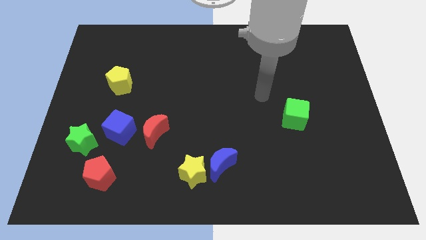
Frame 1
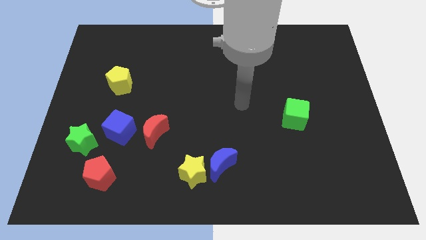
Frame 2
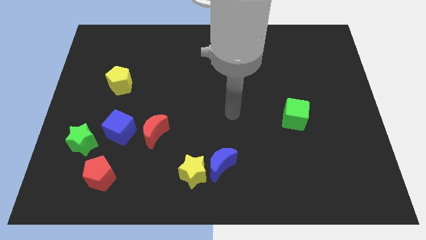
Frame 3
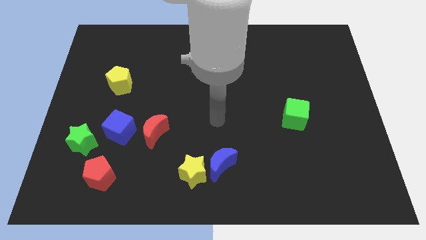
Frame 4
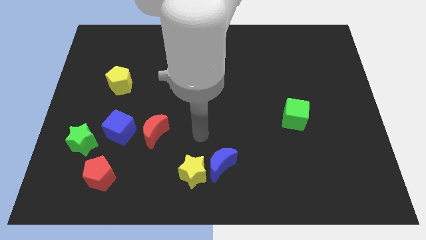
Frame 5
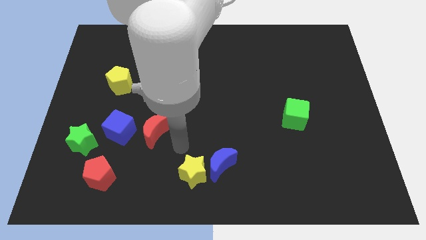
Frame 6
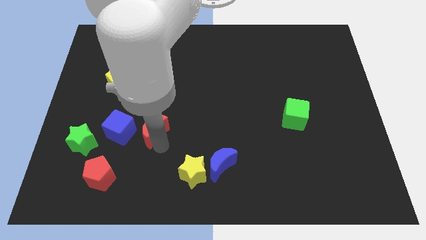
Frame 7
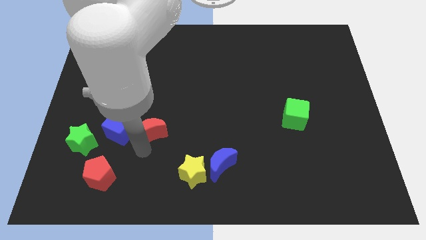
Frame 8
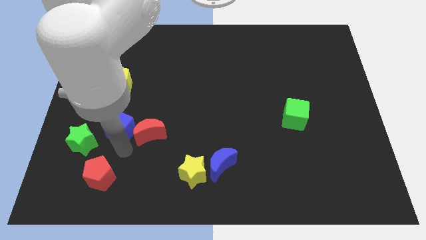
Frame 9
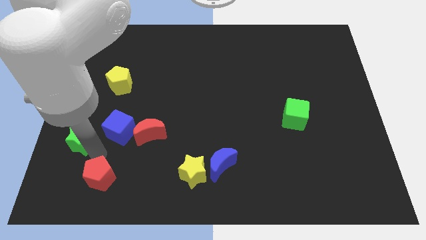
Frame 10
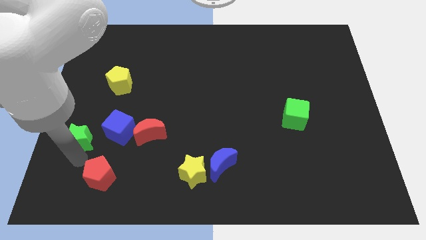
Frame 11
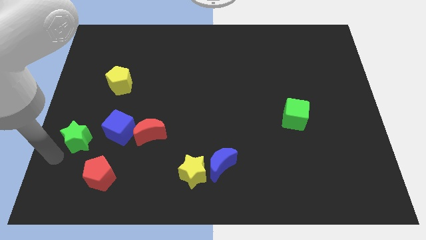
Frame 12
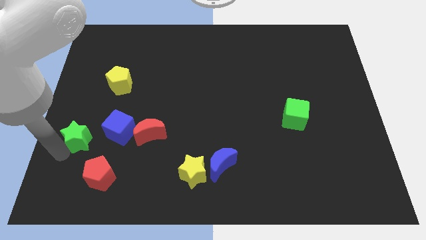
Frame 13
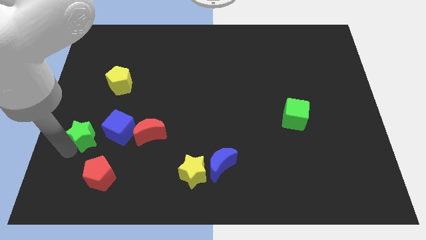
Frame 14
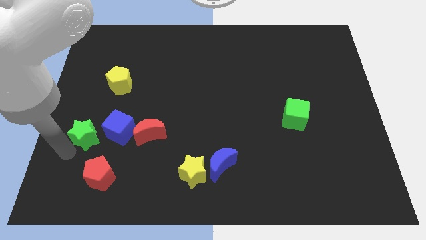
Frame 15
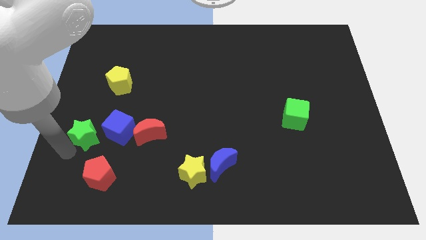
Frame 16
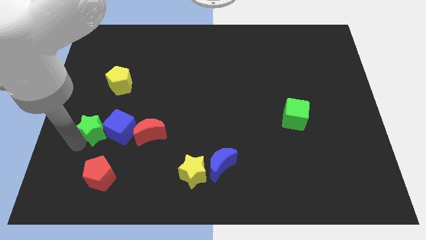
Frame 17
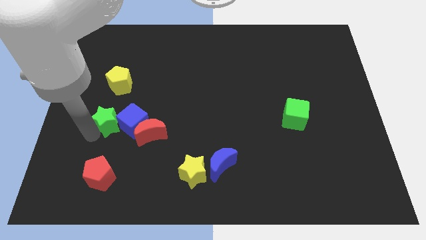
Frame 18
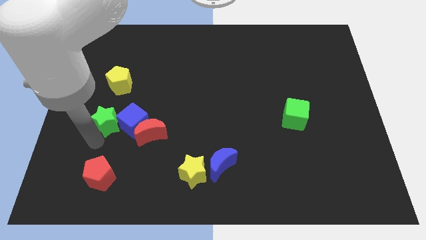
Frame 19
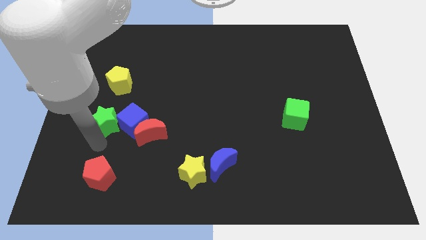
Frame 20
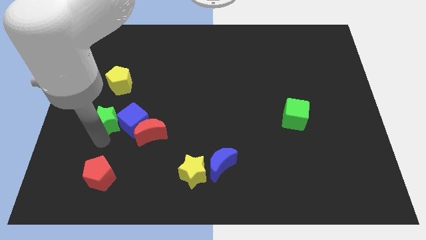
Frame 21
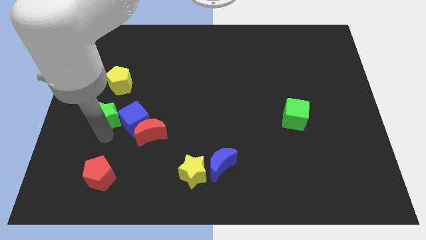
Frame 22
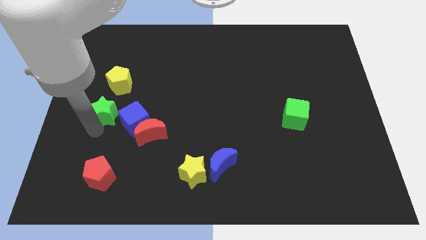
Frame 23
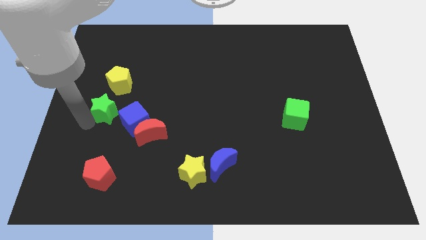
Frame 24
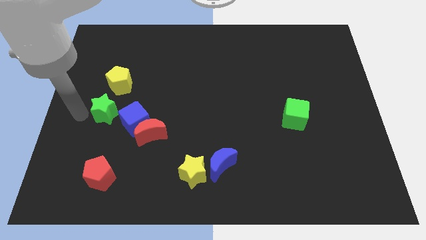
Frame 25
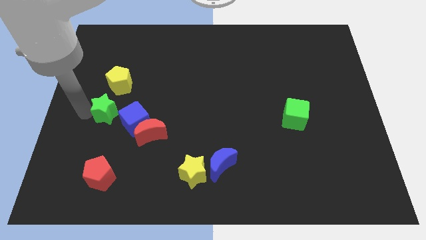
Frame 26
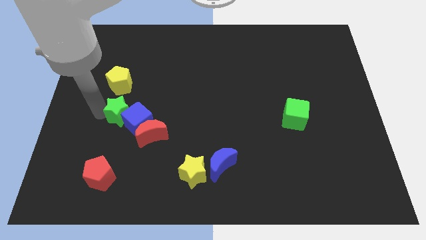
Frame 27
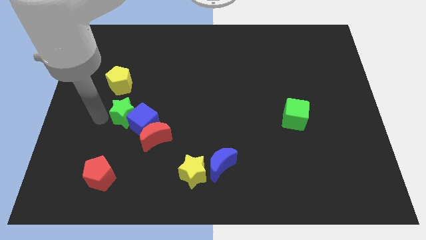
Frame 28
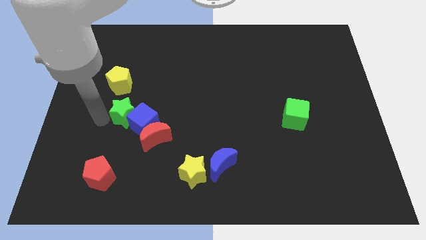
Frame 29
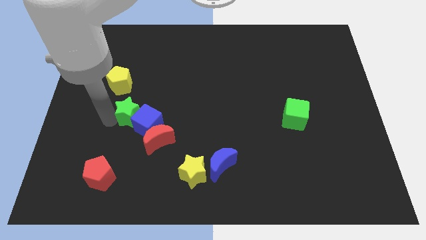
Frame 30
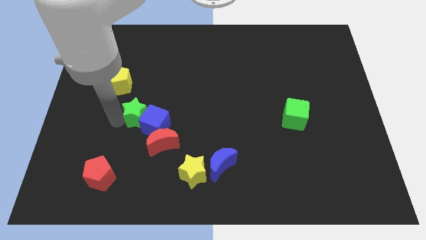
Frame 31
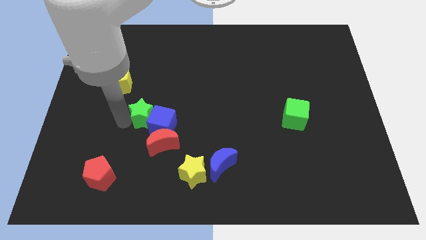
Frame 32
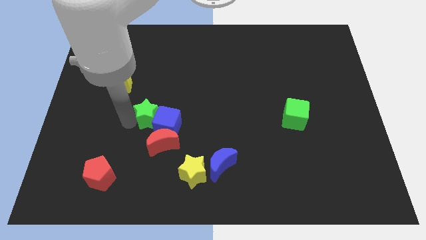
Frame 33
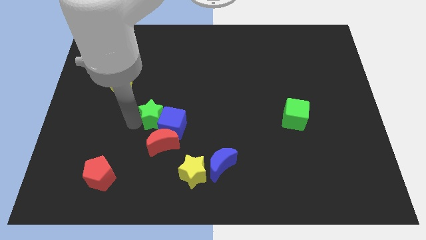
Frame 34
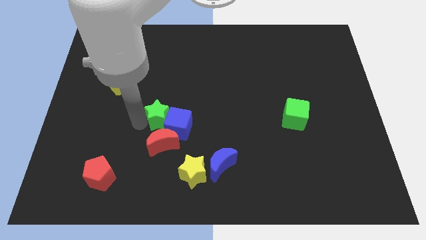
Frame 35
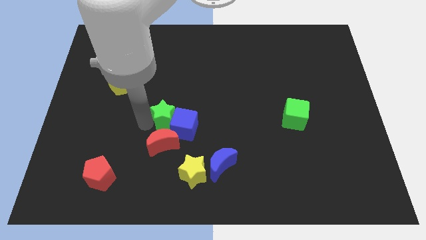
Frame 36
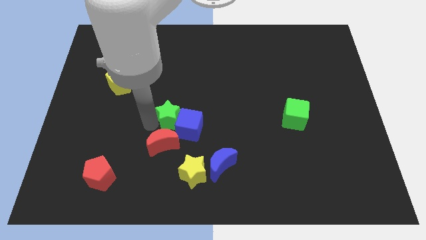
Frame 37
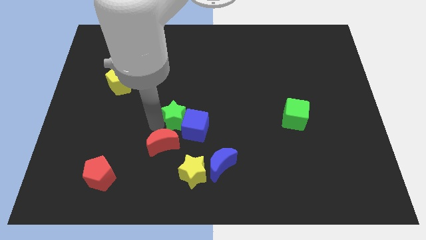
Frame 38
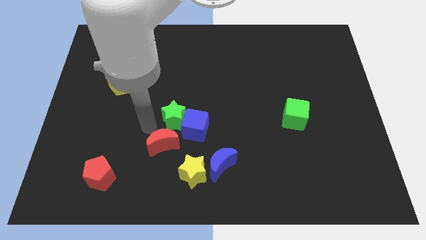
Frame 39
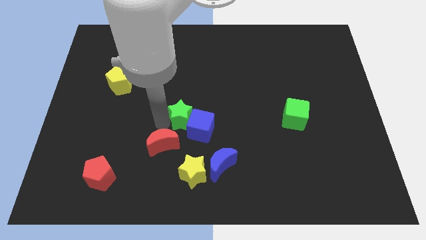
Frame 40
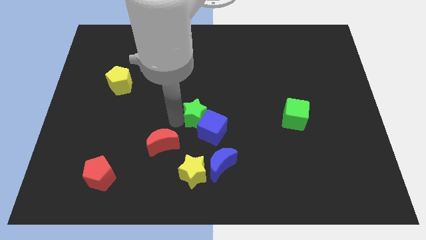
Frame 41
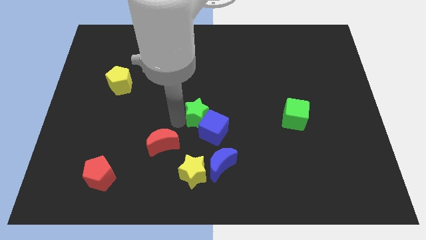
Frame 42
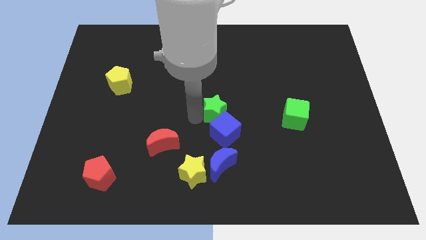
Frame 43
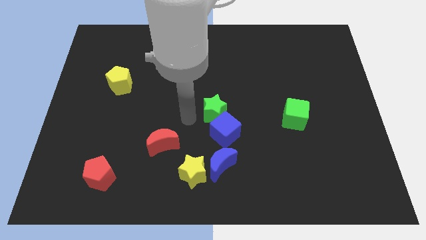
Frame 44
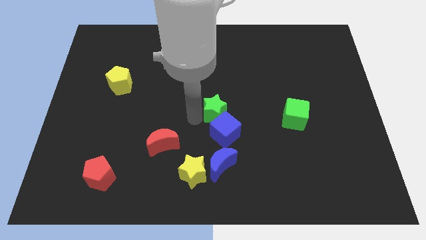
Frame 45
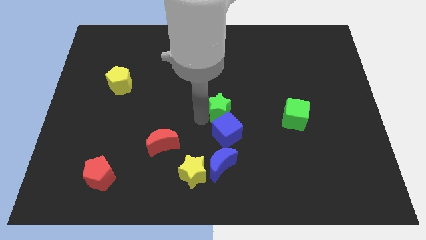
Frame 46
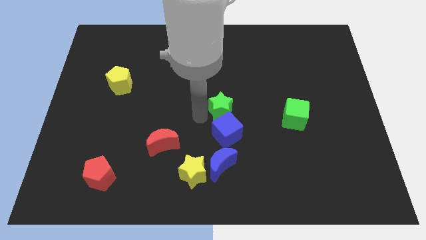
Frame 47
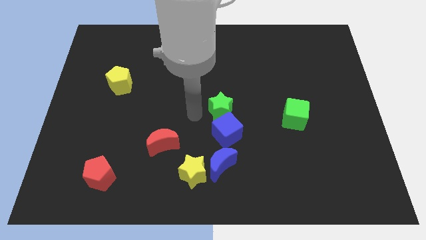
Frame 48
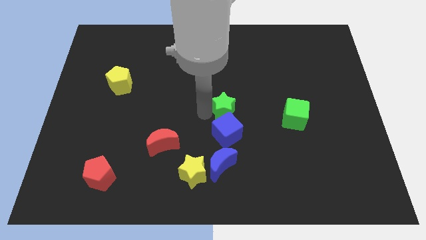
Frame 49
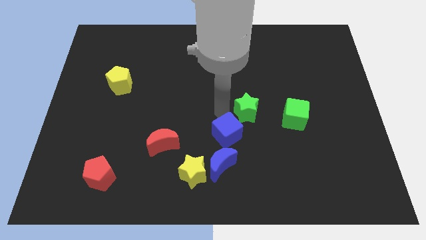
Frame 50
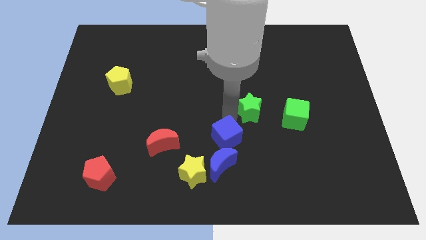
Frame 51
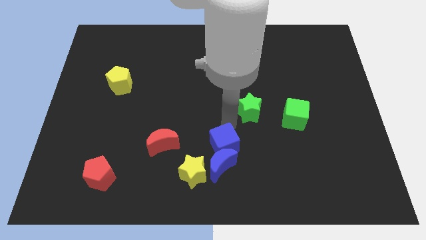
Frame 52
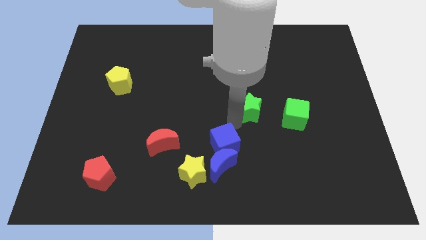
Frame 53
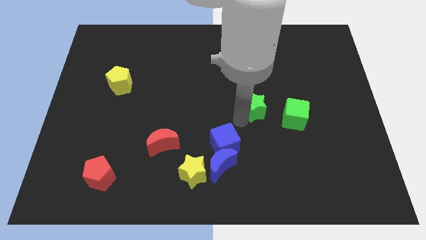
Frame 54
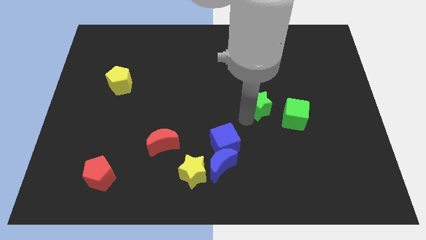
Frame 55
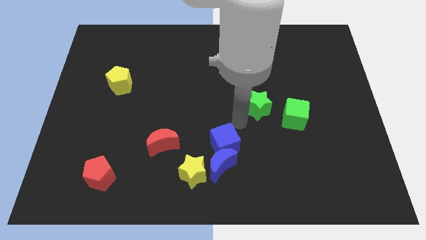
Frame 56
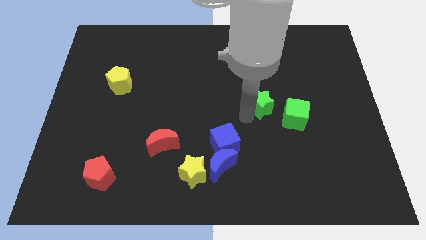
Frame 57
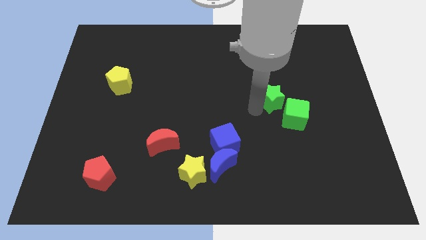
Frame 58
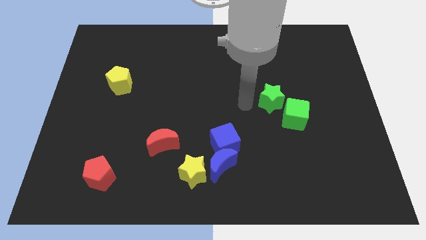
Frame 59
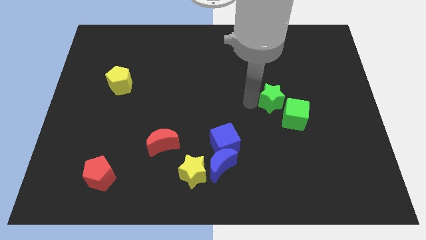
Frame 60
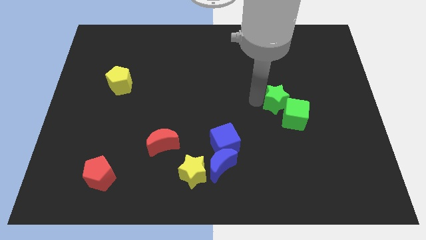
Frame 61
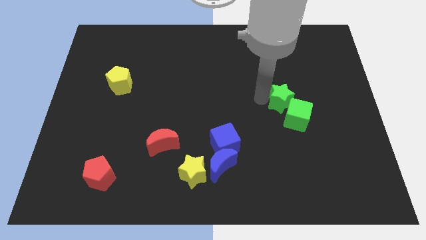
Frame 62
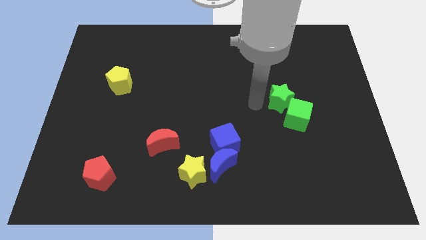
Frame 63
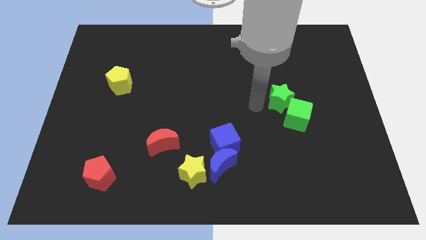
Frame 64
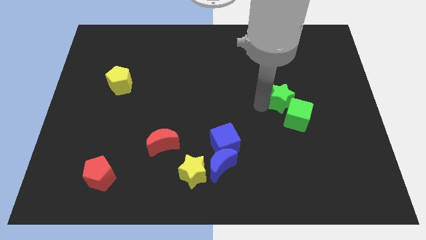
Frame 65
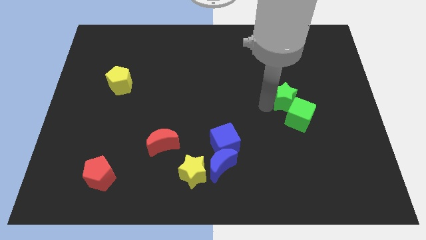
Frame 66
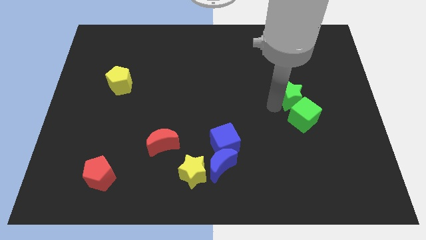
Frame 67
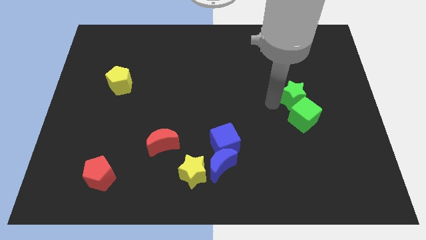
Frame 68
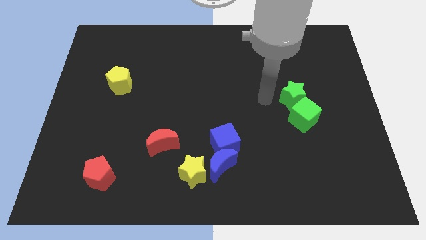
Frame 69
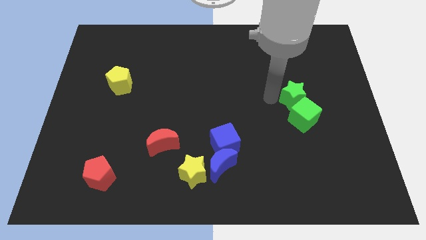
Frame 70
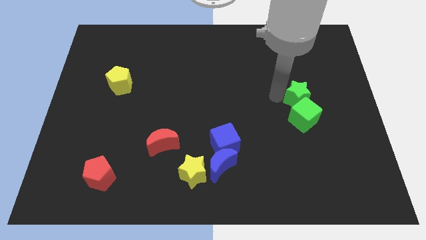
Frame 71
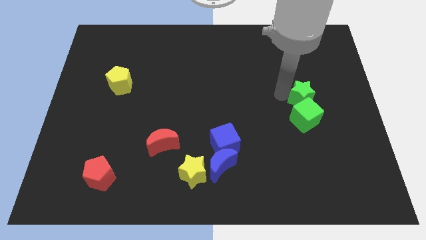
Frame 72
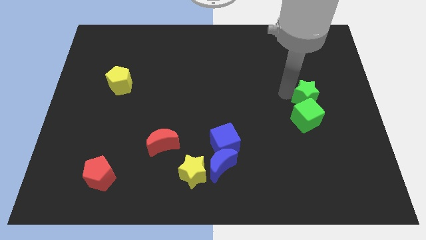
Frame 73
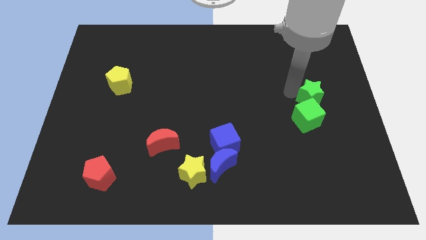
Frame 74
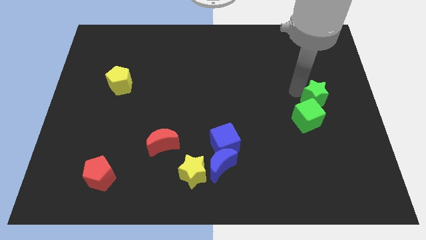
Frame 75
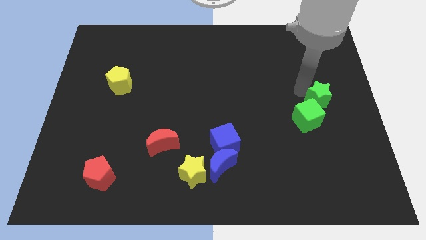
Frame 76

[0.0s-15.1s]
put the green star to the right side
